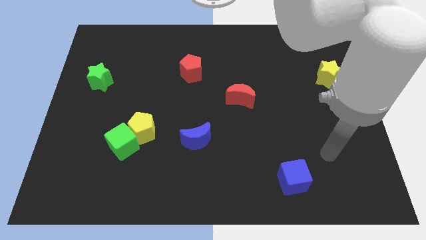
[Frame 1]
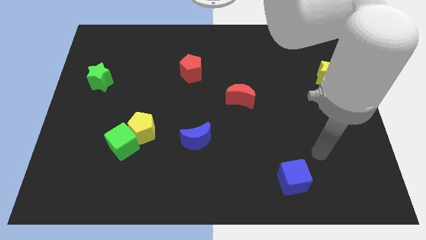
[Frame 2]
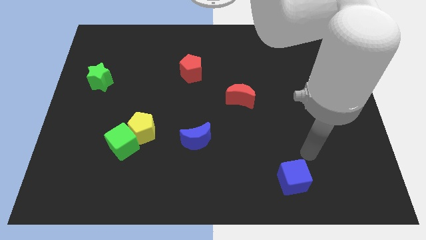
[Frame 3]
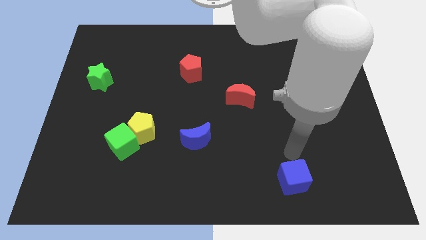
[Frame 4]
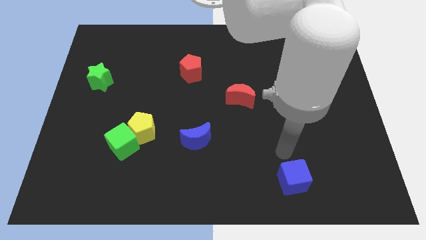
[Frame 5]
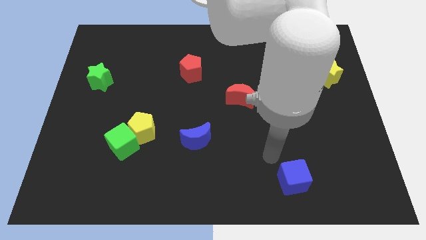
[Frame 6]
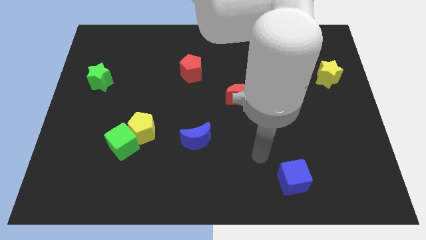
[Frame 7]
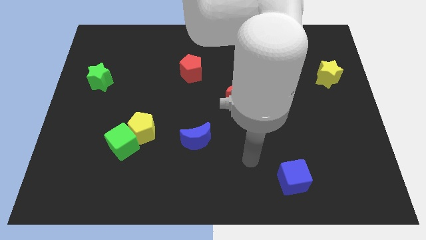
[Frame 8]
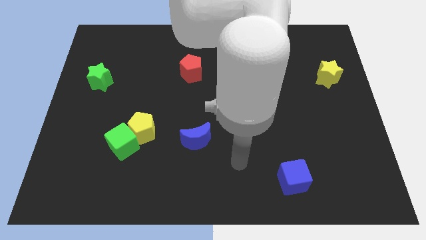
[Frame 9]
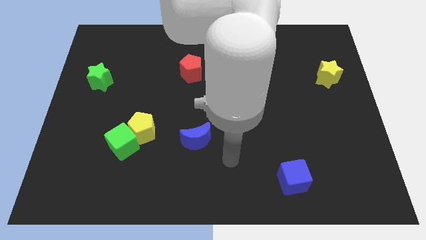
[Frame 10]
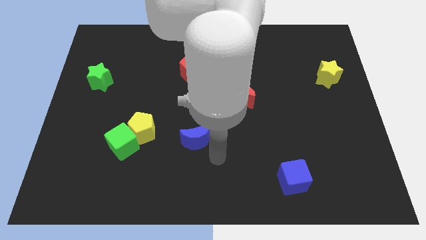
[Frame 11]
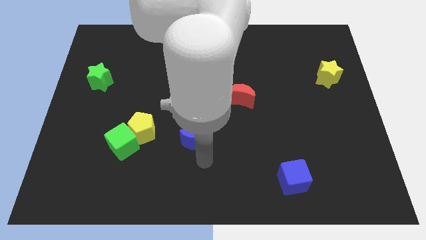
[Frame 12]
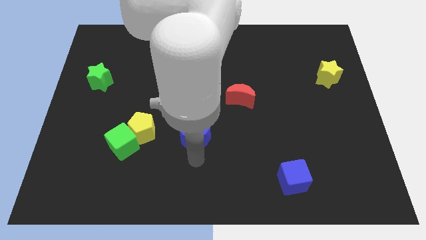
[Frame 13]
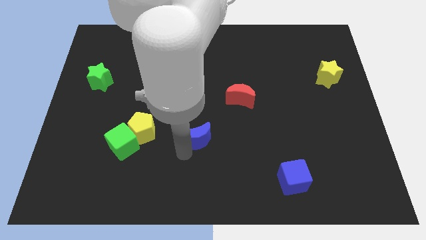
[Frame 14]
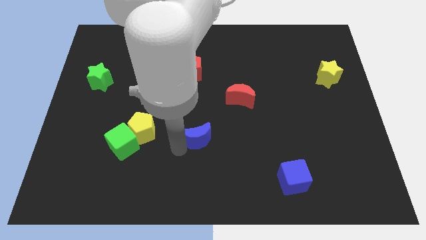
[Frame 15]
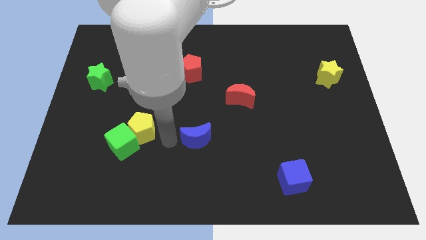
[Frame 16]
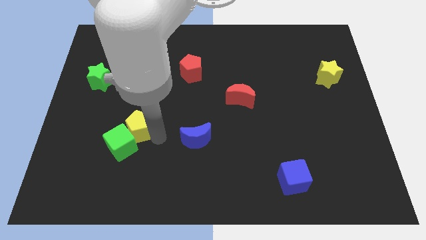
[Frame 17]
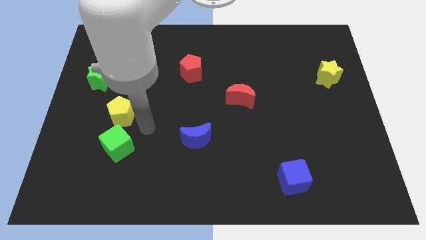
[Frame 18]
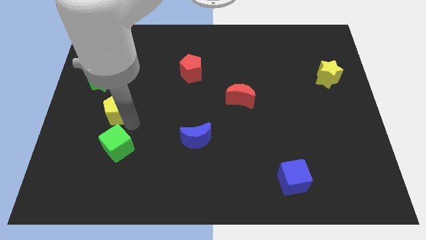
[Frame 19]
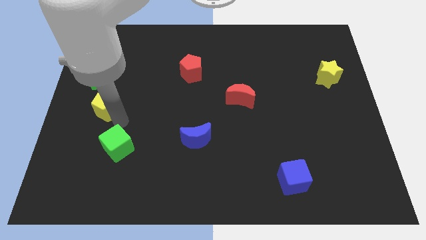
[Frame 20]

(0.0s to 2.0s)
separate the green cube from the yellow pentagon

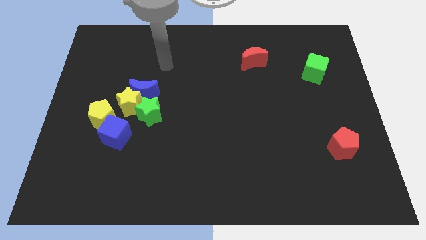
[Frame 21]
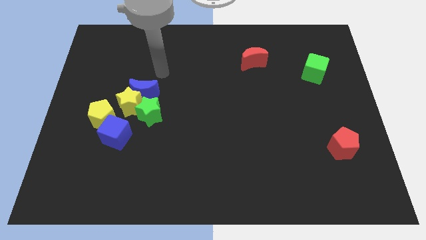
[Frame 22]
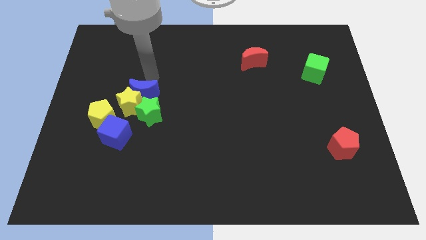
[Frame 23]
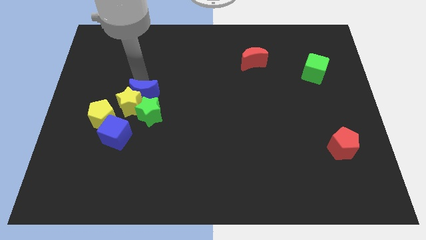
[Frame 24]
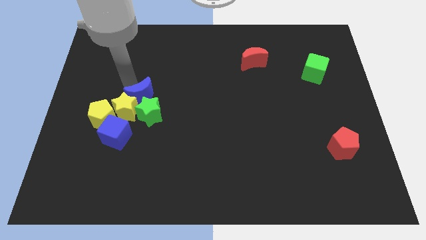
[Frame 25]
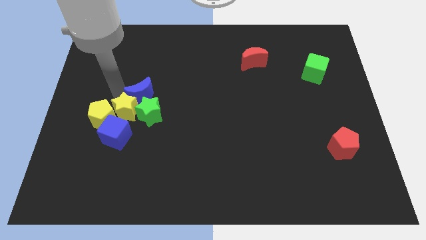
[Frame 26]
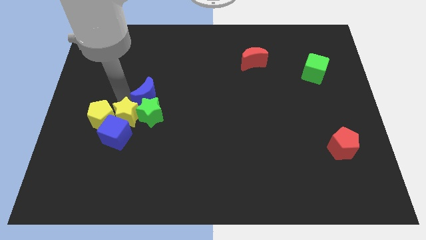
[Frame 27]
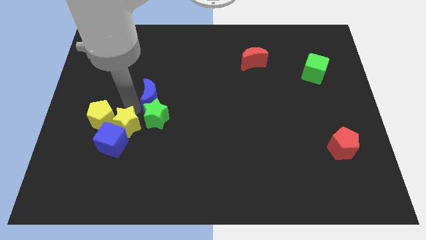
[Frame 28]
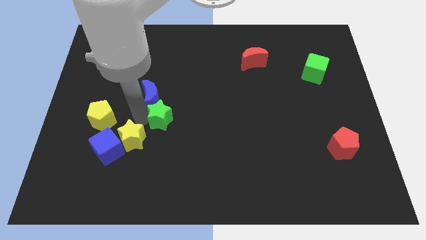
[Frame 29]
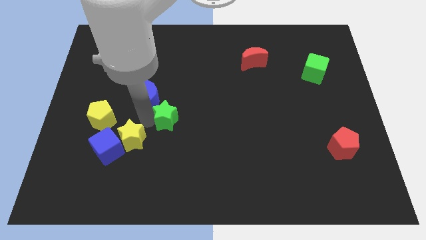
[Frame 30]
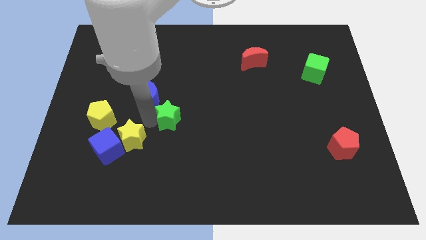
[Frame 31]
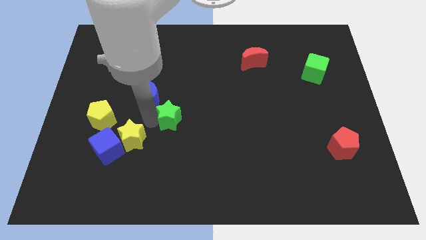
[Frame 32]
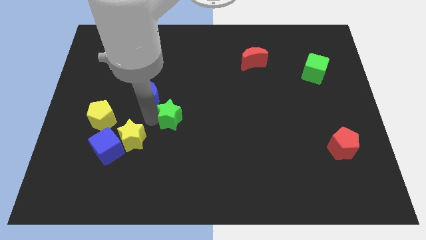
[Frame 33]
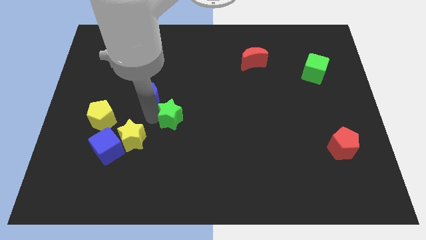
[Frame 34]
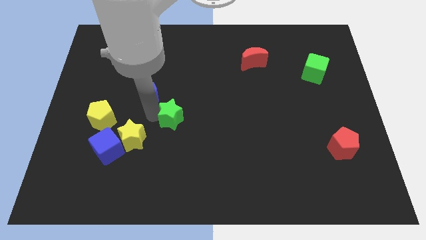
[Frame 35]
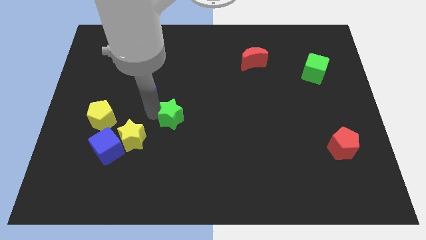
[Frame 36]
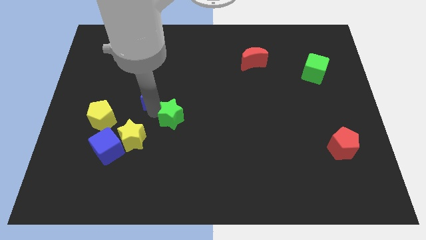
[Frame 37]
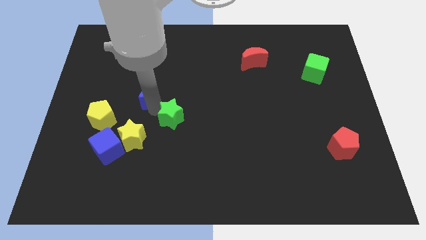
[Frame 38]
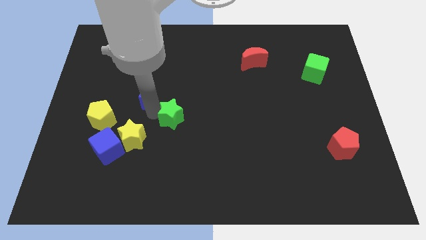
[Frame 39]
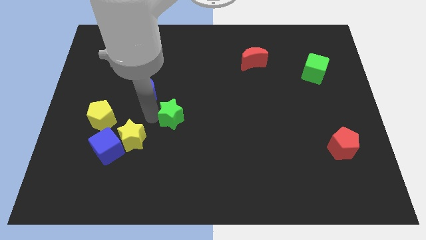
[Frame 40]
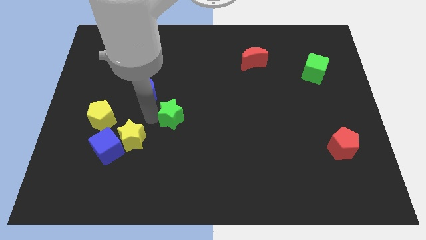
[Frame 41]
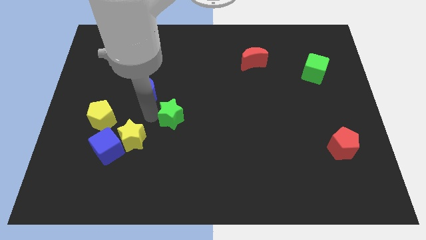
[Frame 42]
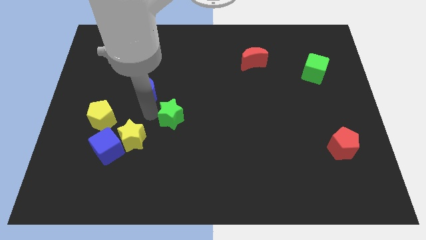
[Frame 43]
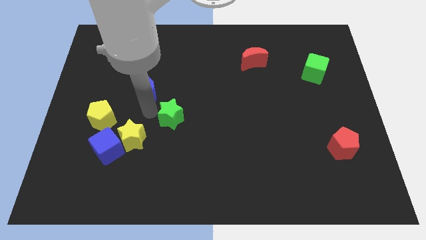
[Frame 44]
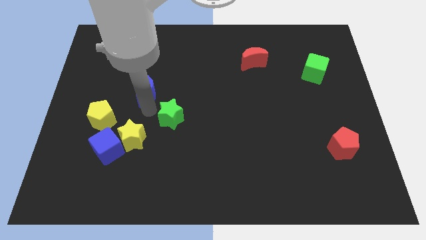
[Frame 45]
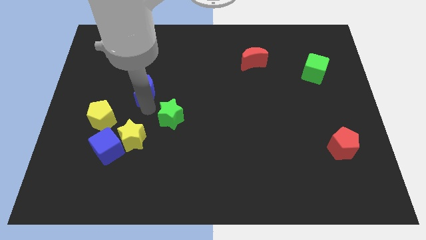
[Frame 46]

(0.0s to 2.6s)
pull the blue moon apart from the yellow star and green star

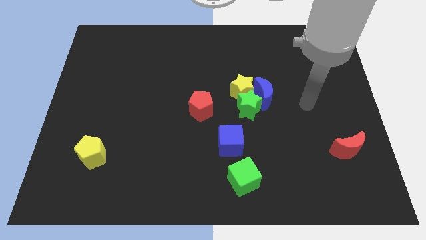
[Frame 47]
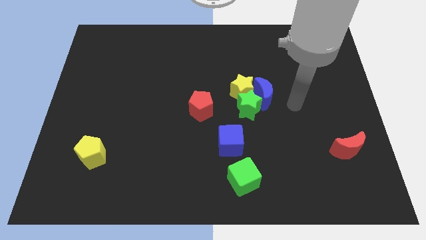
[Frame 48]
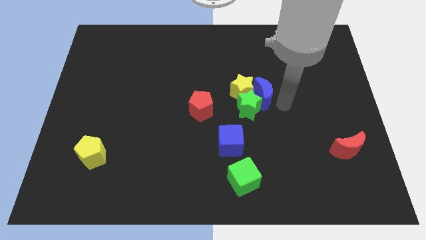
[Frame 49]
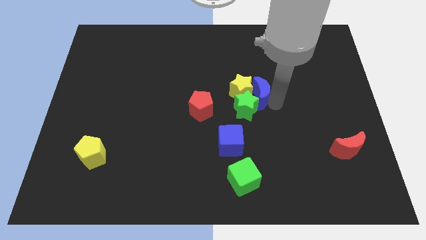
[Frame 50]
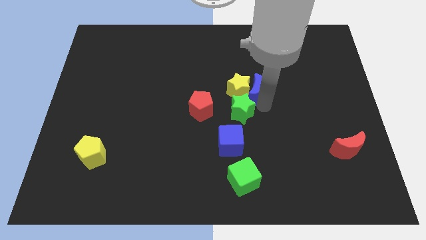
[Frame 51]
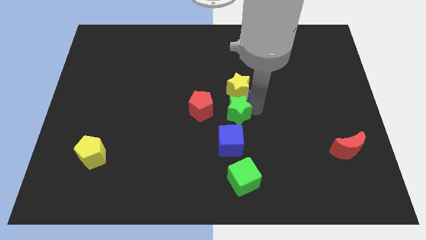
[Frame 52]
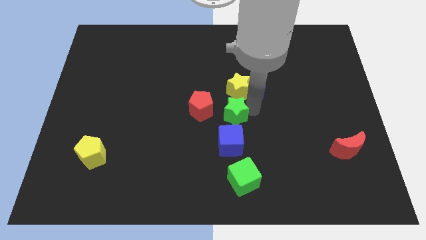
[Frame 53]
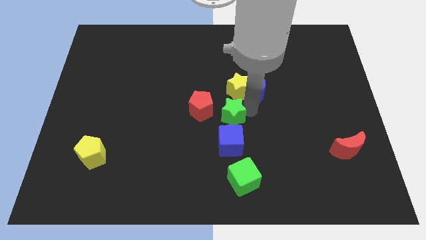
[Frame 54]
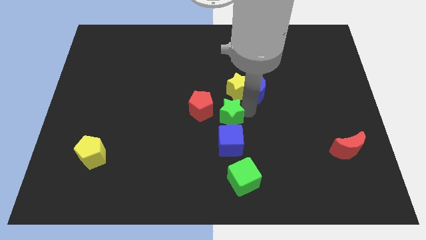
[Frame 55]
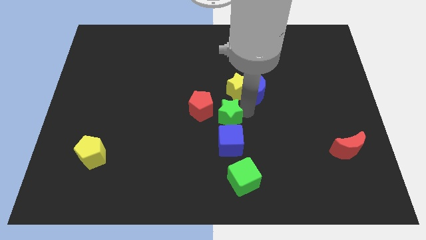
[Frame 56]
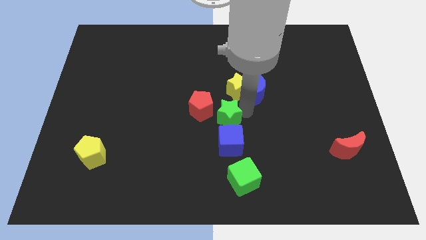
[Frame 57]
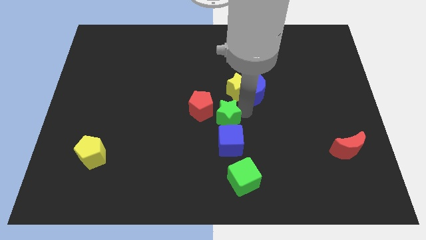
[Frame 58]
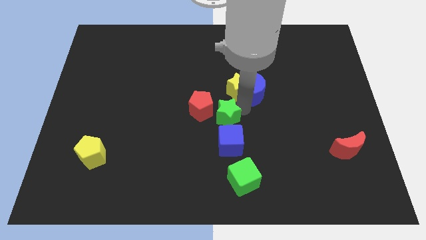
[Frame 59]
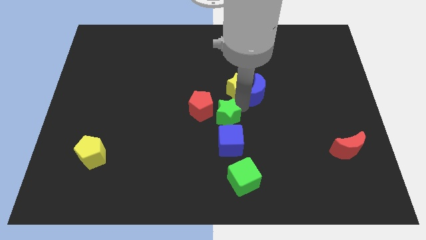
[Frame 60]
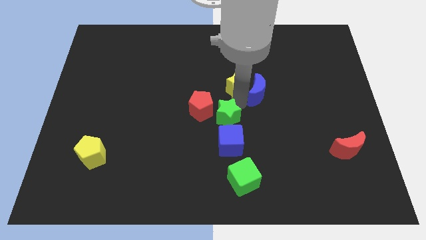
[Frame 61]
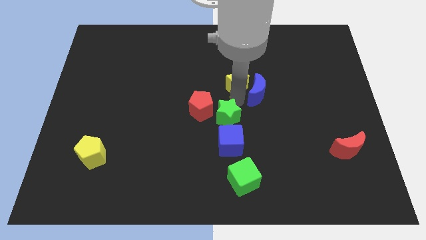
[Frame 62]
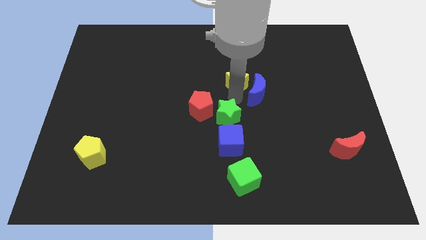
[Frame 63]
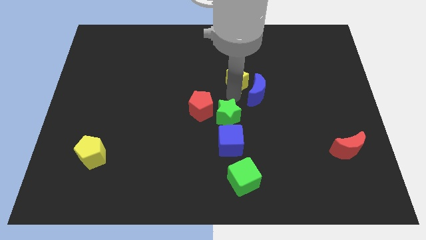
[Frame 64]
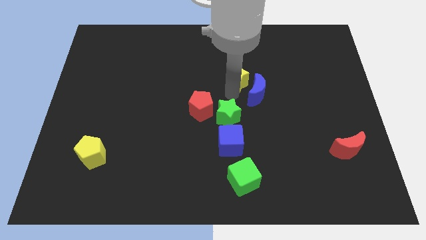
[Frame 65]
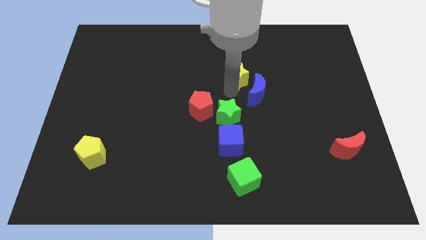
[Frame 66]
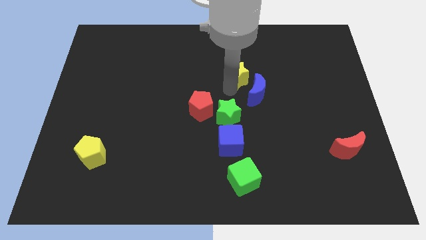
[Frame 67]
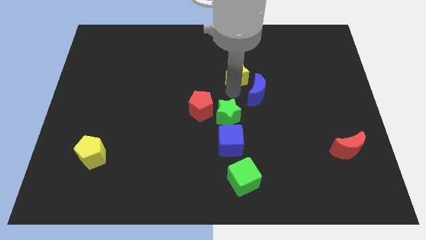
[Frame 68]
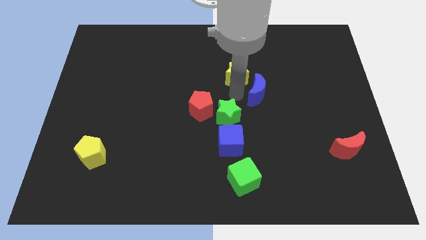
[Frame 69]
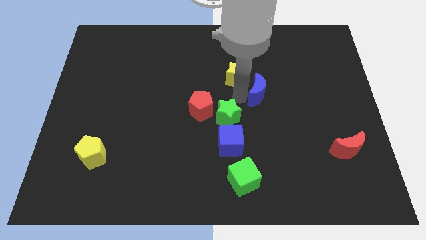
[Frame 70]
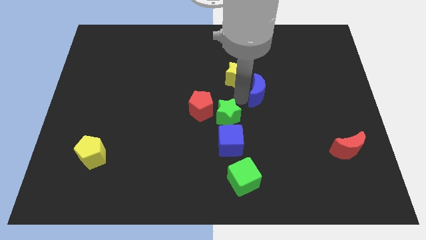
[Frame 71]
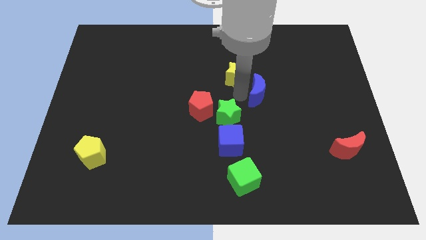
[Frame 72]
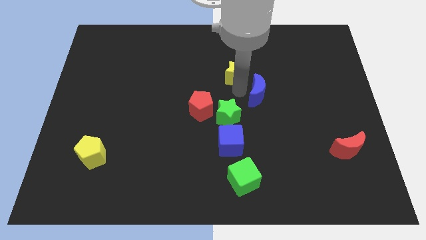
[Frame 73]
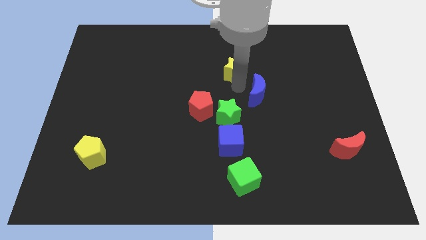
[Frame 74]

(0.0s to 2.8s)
separate the yellow star from the green star and blue moon

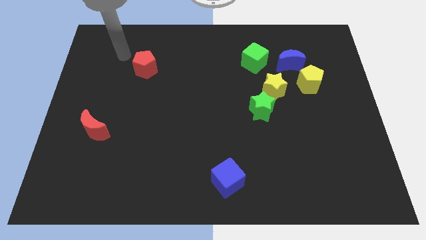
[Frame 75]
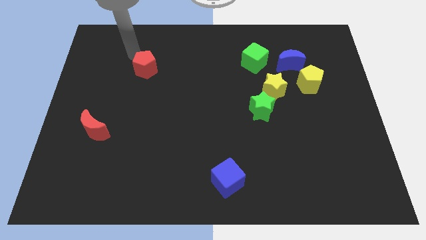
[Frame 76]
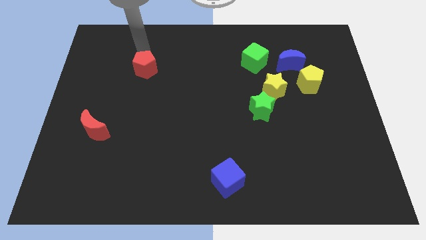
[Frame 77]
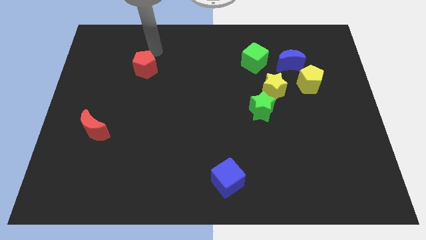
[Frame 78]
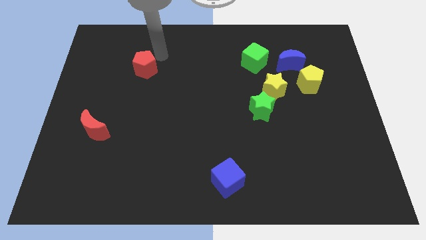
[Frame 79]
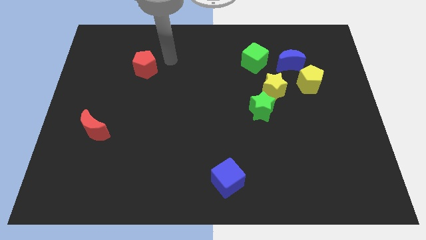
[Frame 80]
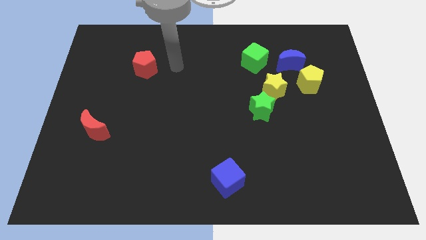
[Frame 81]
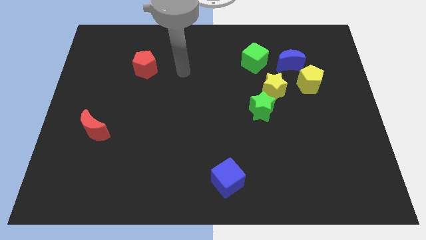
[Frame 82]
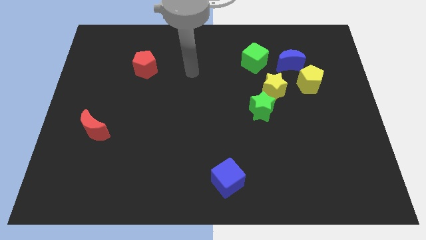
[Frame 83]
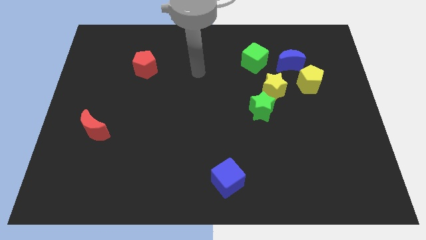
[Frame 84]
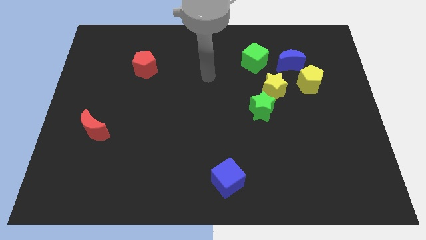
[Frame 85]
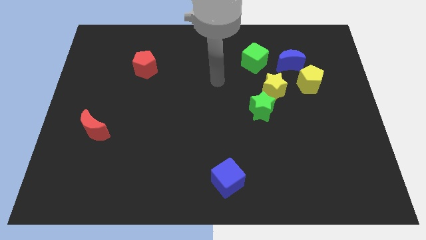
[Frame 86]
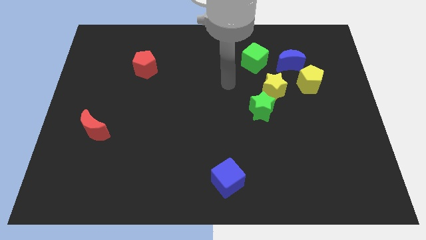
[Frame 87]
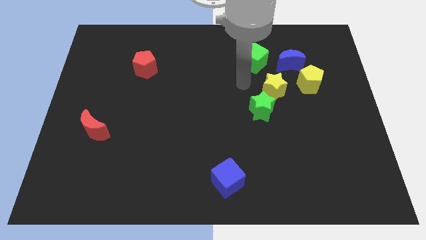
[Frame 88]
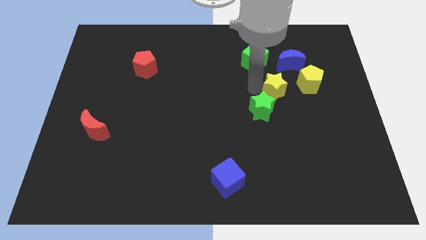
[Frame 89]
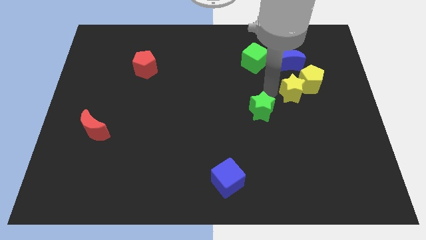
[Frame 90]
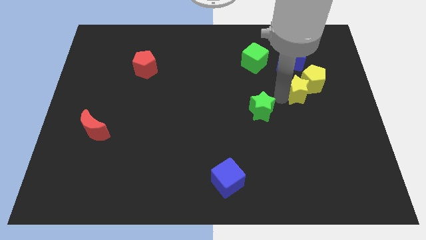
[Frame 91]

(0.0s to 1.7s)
move the green star away from the yellow star

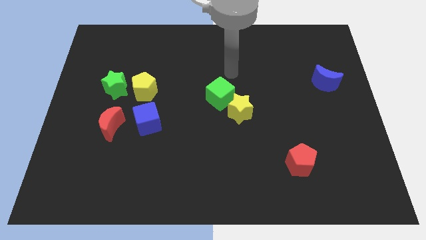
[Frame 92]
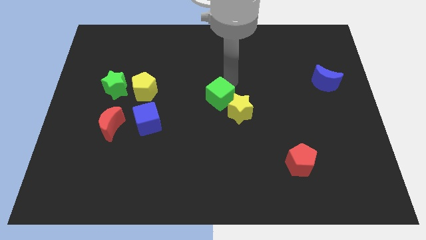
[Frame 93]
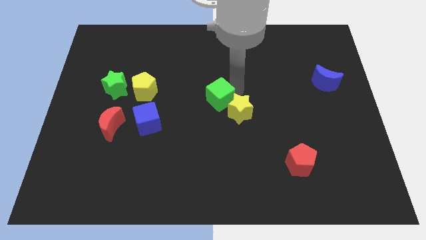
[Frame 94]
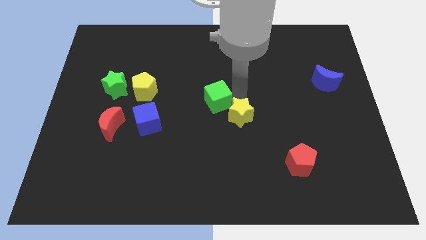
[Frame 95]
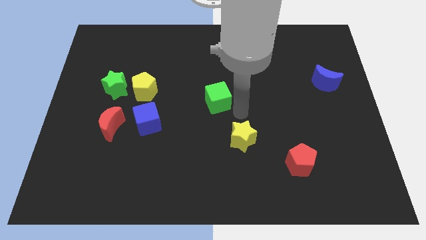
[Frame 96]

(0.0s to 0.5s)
separate the green cube from the yellow star
